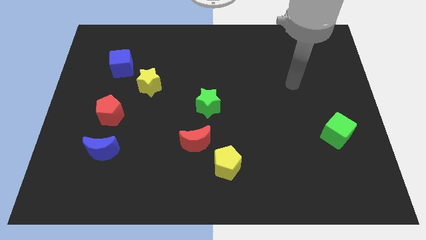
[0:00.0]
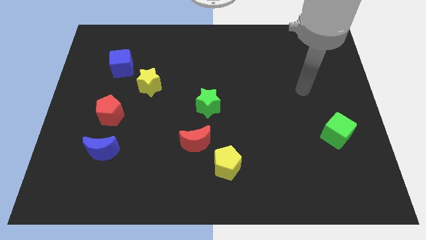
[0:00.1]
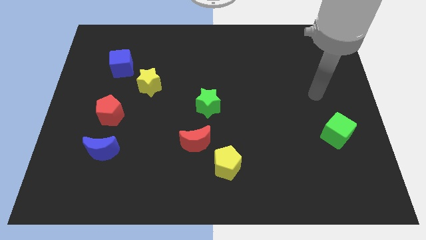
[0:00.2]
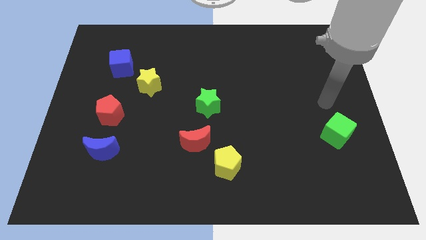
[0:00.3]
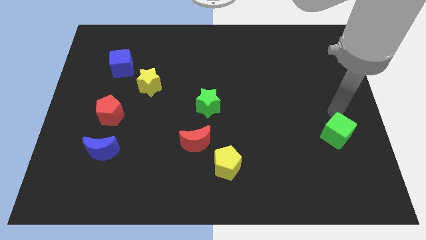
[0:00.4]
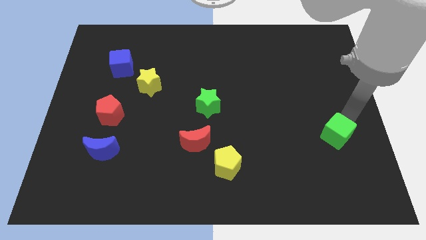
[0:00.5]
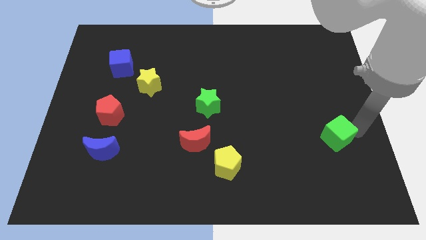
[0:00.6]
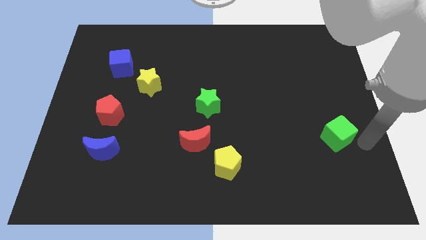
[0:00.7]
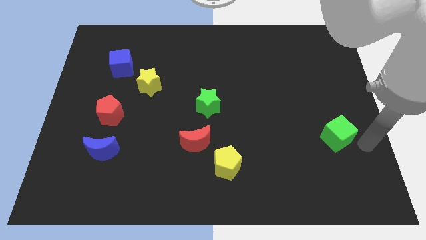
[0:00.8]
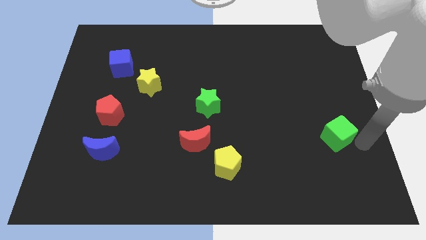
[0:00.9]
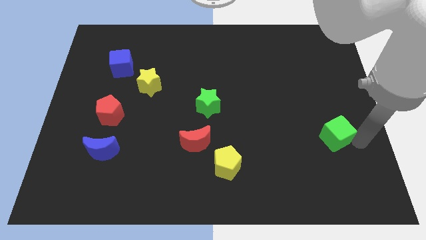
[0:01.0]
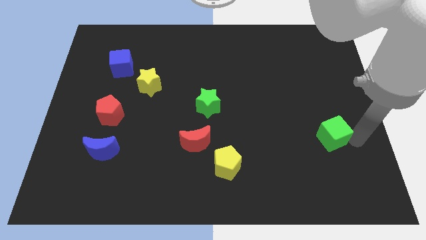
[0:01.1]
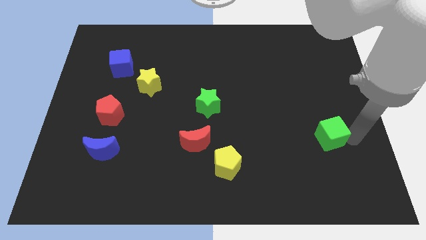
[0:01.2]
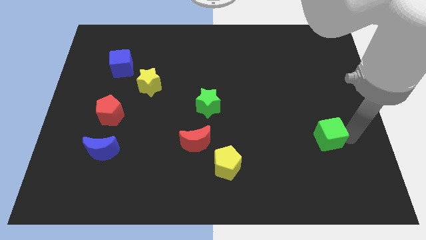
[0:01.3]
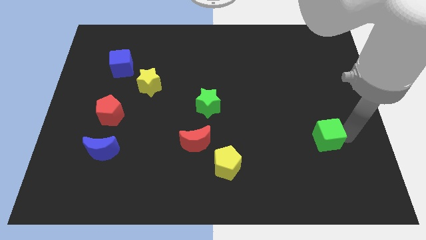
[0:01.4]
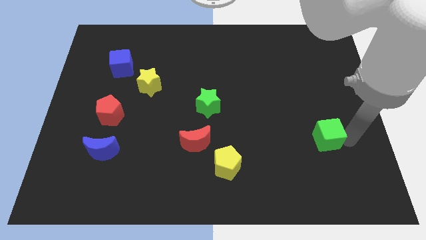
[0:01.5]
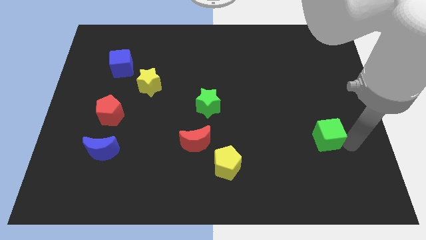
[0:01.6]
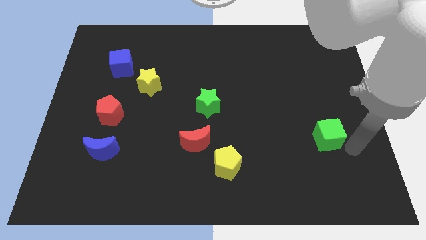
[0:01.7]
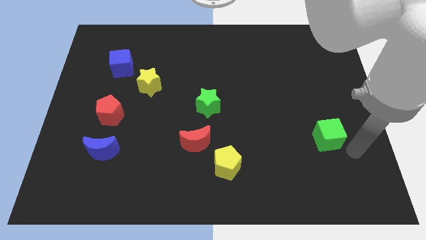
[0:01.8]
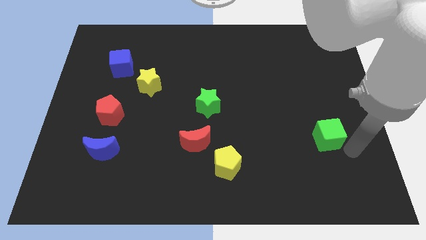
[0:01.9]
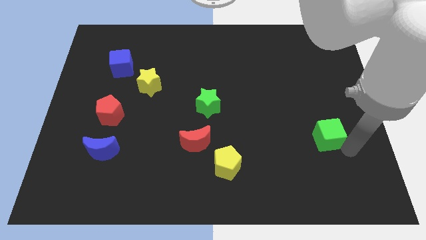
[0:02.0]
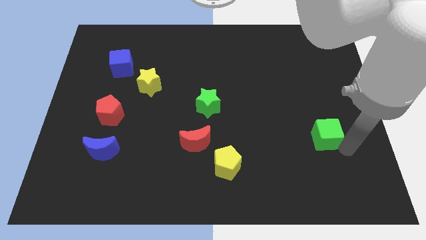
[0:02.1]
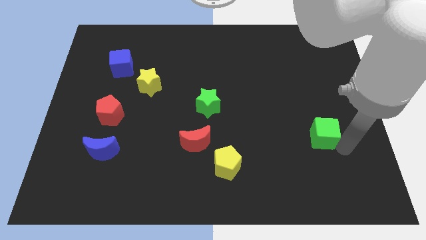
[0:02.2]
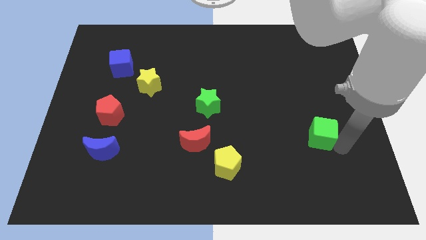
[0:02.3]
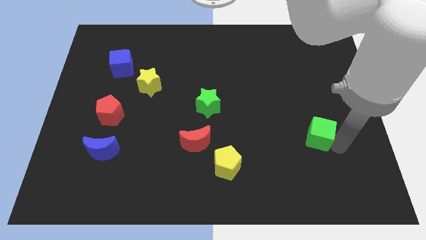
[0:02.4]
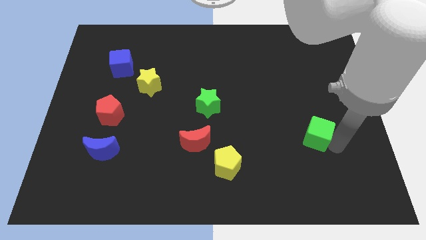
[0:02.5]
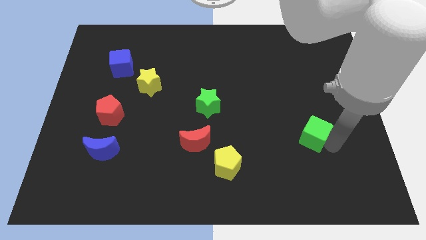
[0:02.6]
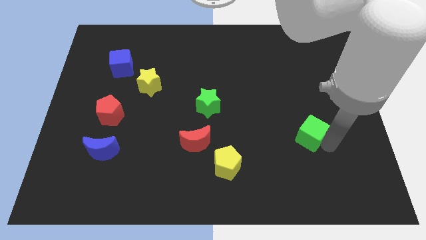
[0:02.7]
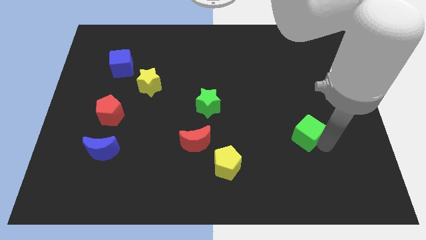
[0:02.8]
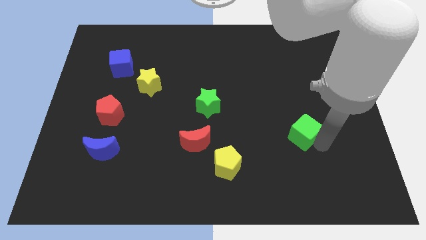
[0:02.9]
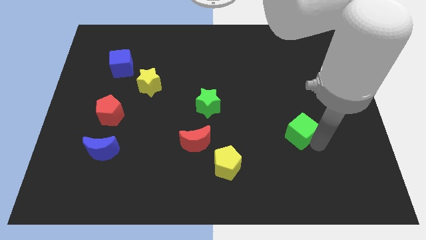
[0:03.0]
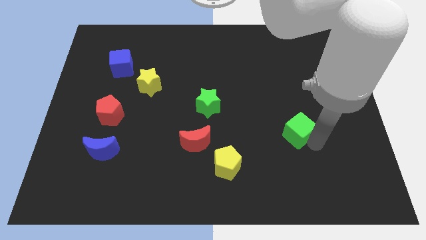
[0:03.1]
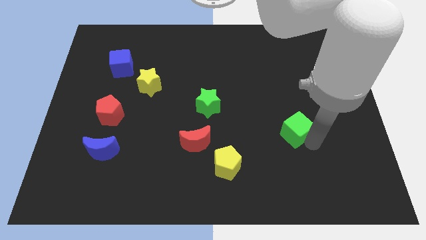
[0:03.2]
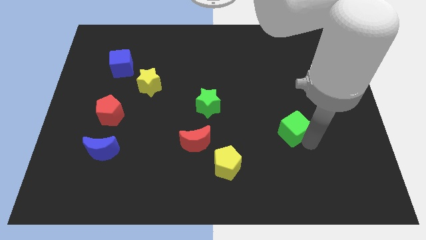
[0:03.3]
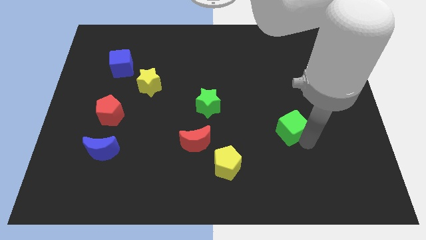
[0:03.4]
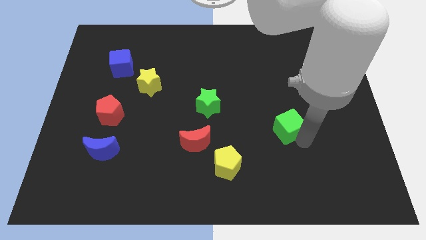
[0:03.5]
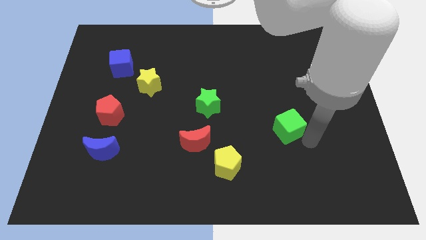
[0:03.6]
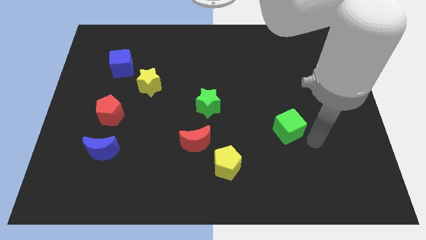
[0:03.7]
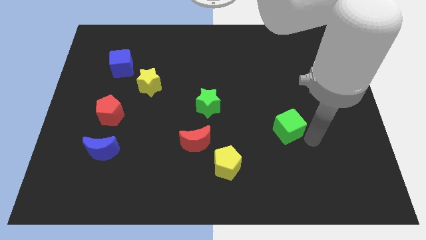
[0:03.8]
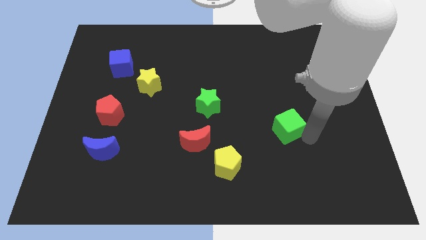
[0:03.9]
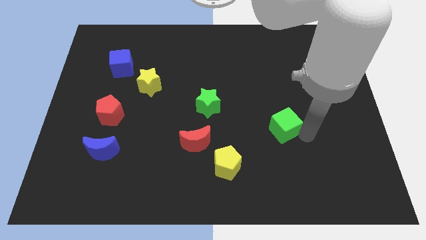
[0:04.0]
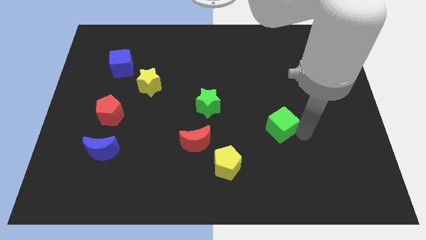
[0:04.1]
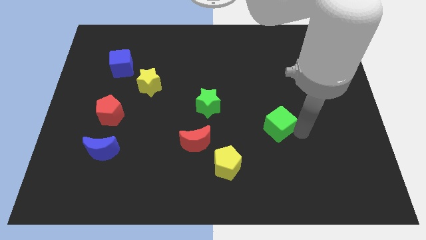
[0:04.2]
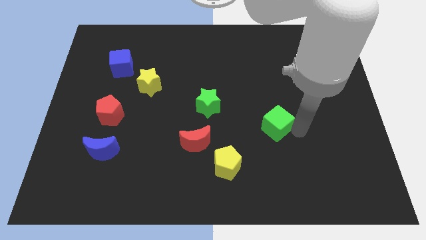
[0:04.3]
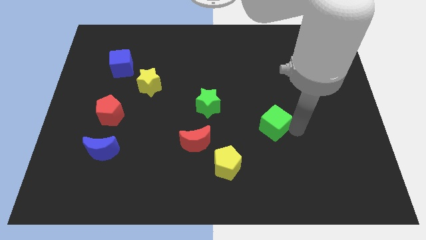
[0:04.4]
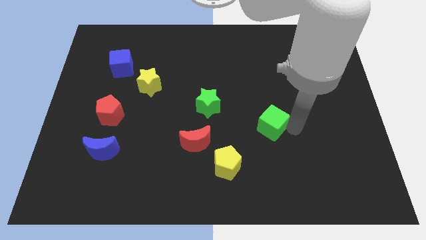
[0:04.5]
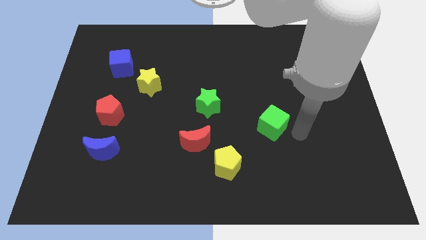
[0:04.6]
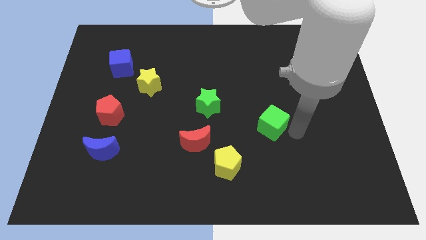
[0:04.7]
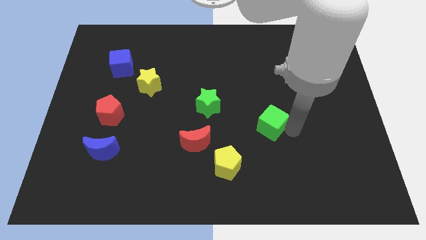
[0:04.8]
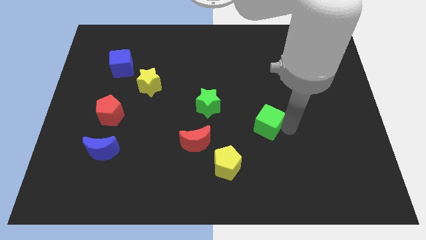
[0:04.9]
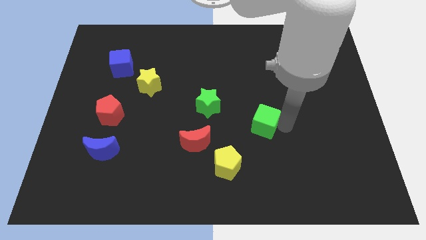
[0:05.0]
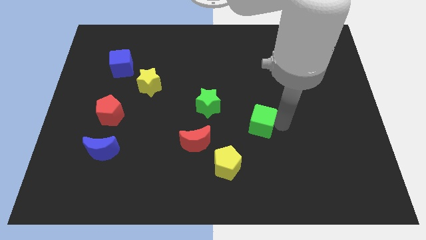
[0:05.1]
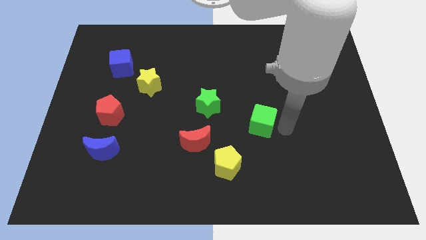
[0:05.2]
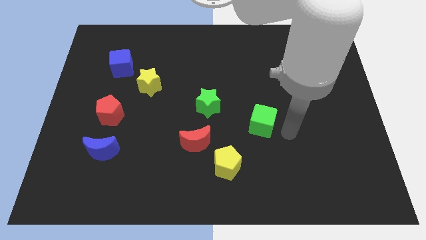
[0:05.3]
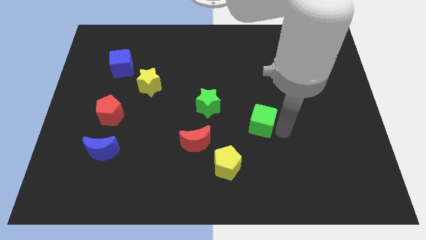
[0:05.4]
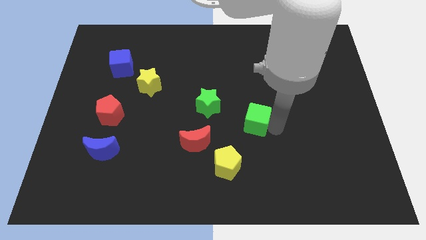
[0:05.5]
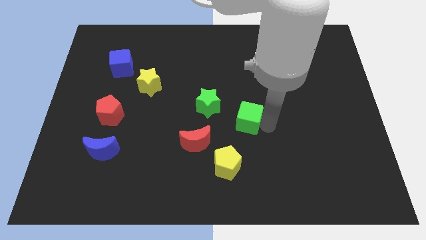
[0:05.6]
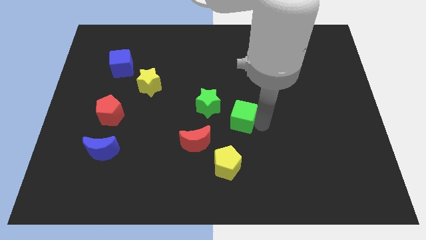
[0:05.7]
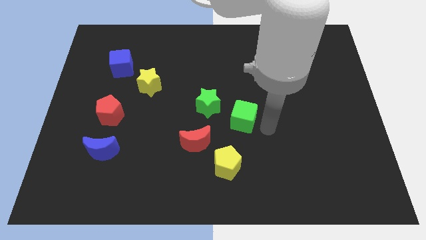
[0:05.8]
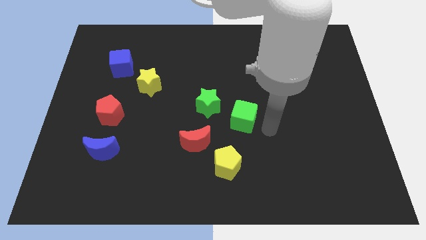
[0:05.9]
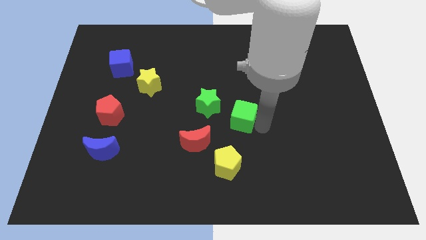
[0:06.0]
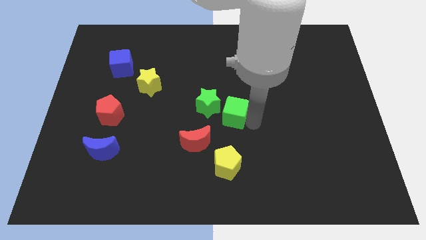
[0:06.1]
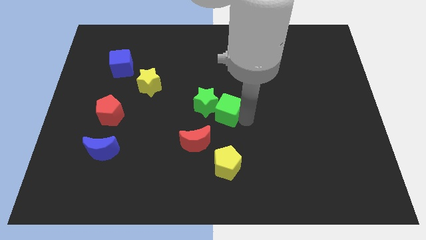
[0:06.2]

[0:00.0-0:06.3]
push the green cube towards the green star
